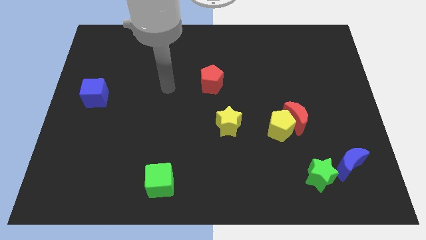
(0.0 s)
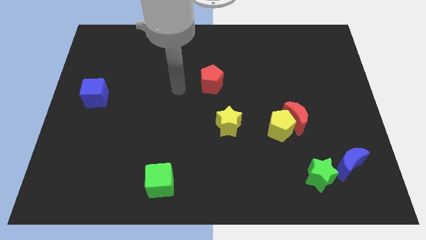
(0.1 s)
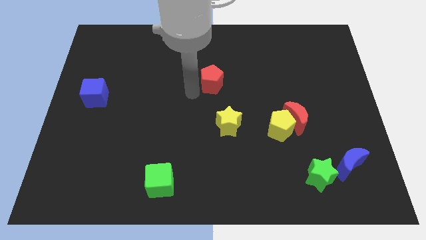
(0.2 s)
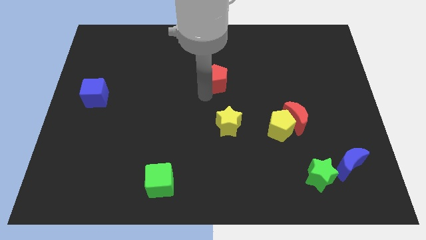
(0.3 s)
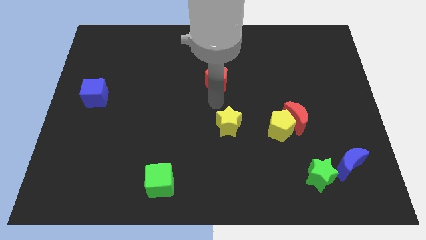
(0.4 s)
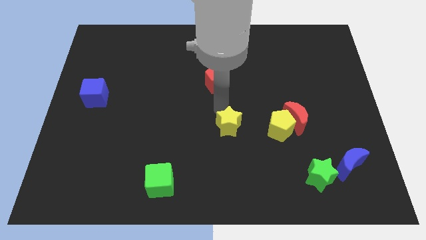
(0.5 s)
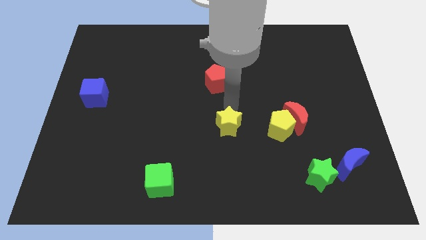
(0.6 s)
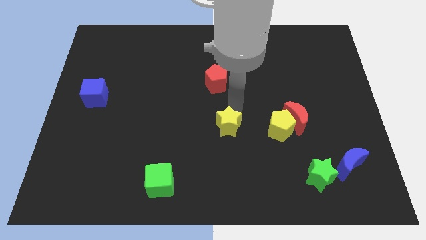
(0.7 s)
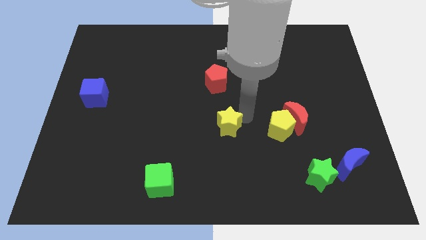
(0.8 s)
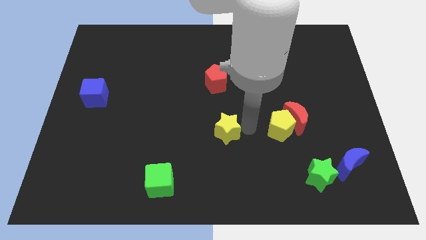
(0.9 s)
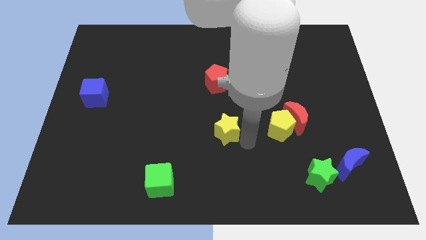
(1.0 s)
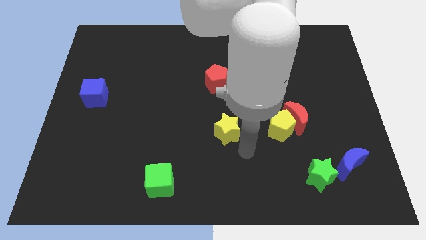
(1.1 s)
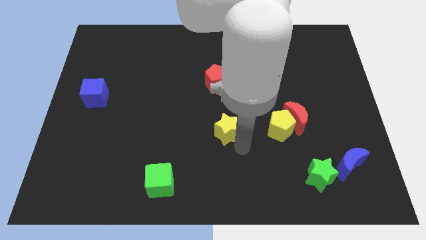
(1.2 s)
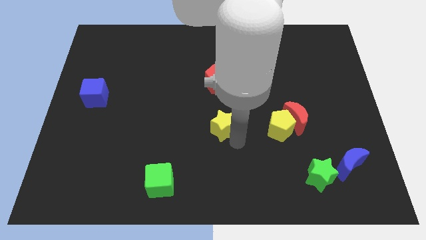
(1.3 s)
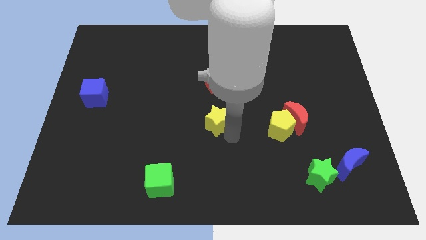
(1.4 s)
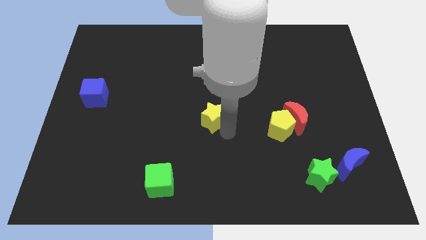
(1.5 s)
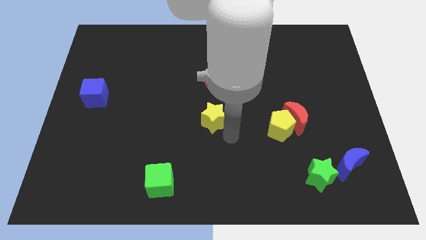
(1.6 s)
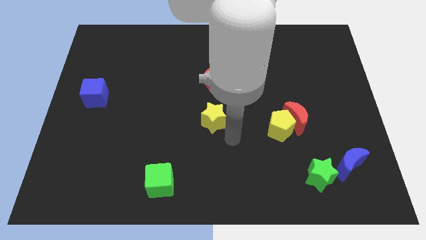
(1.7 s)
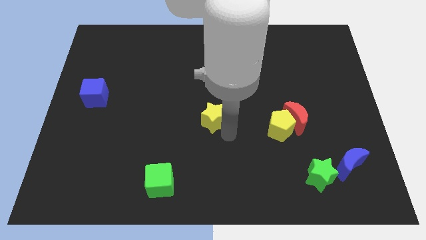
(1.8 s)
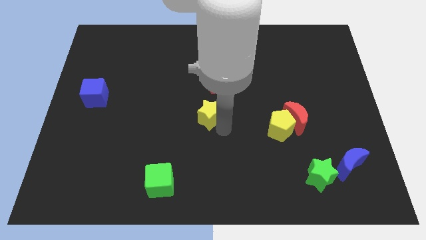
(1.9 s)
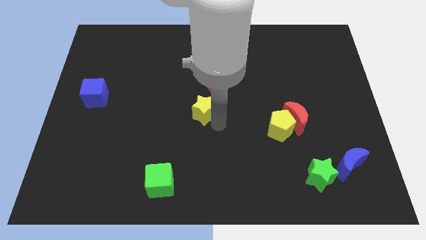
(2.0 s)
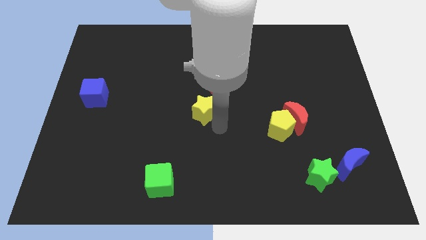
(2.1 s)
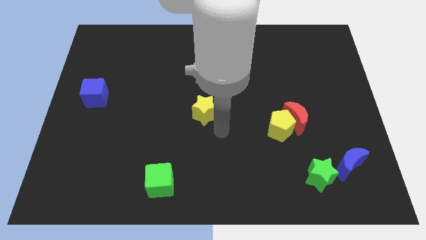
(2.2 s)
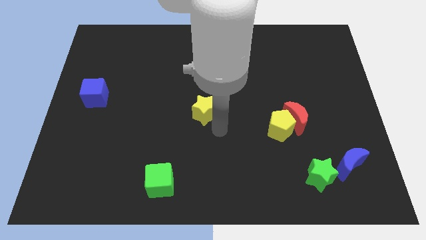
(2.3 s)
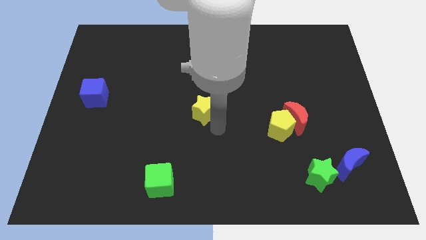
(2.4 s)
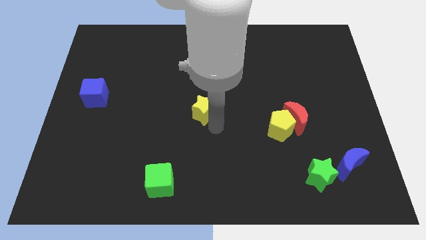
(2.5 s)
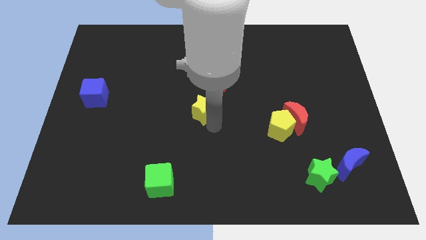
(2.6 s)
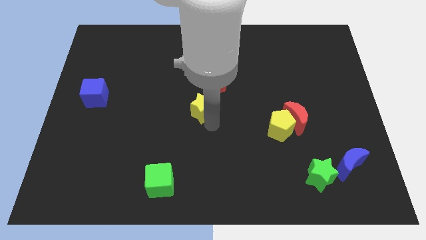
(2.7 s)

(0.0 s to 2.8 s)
move the yellow star upwards and to the left diagonally somewhat

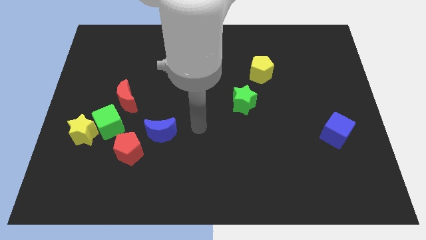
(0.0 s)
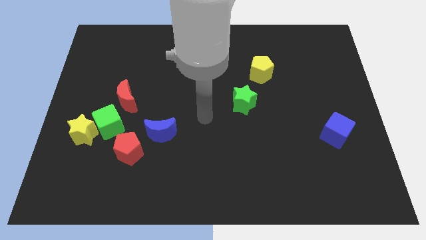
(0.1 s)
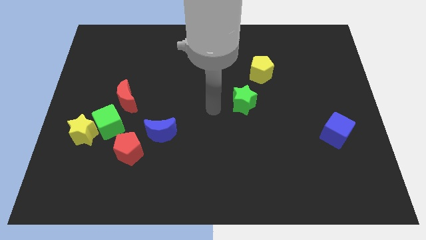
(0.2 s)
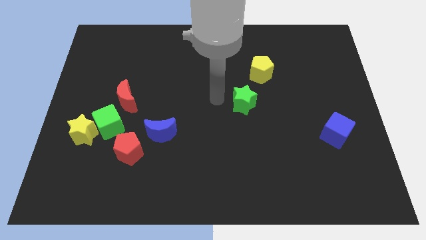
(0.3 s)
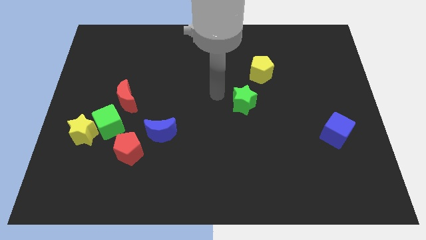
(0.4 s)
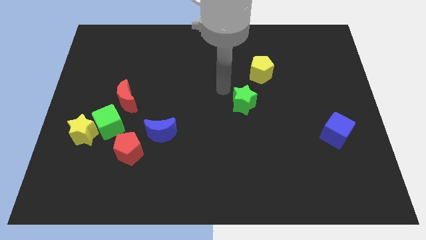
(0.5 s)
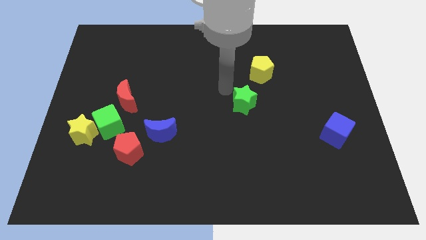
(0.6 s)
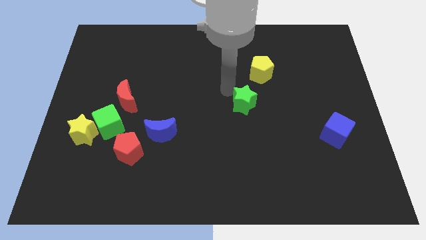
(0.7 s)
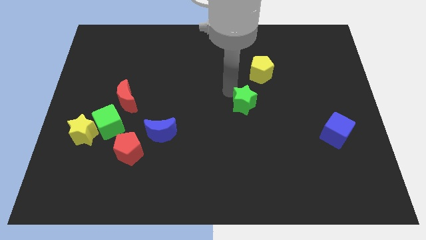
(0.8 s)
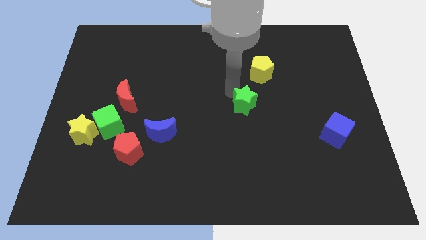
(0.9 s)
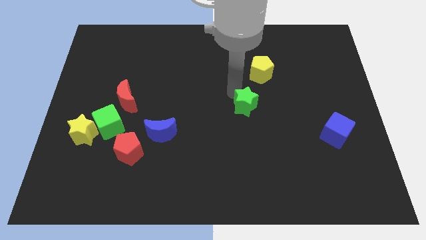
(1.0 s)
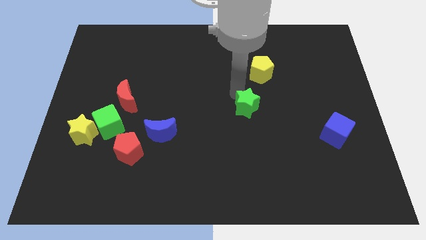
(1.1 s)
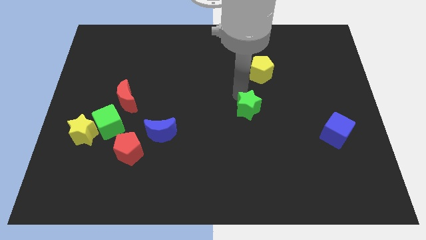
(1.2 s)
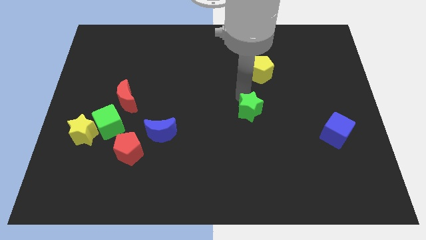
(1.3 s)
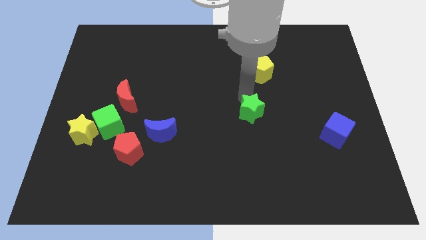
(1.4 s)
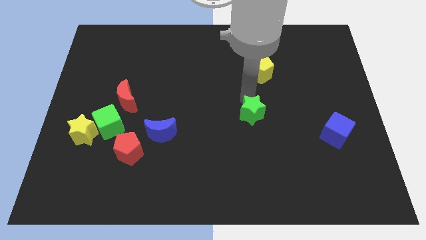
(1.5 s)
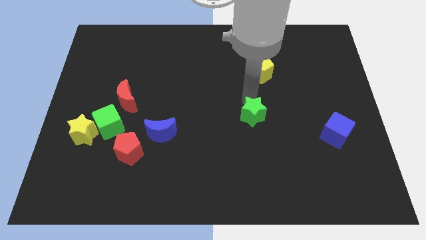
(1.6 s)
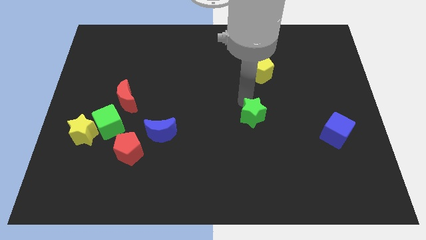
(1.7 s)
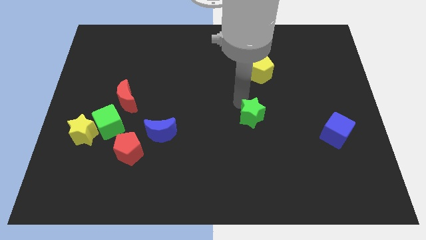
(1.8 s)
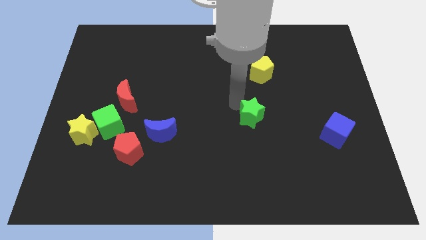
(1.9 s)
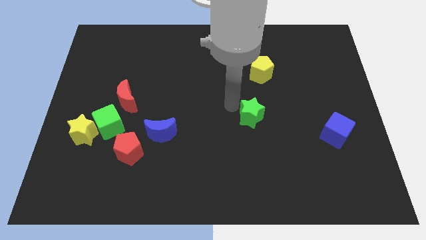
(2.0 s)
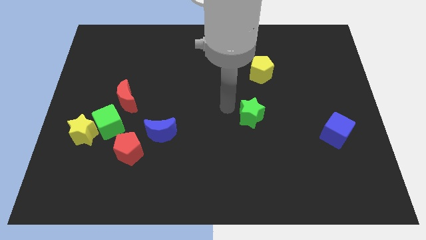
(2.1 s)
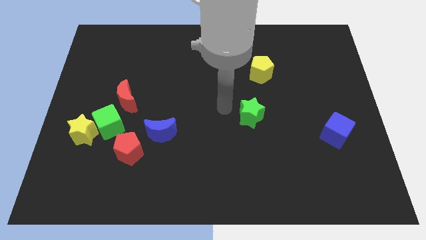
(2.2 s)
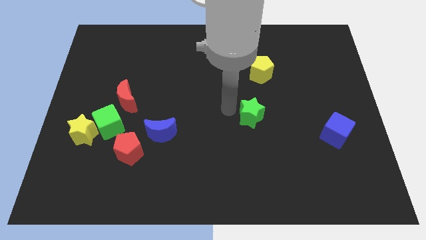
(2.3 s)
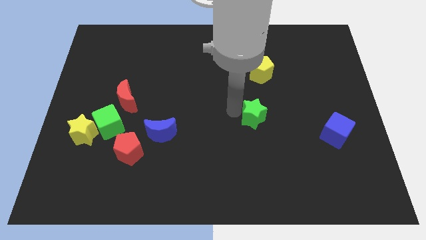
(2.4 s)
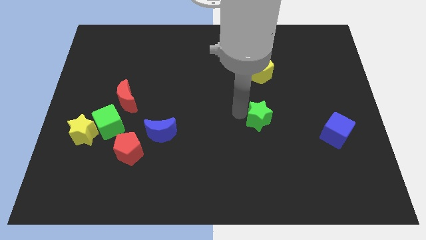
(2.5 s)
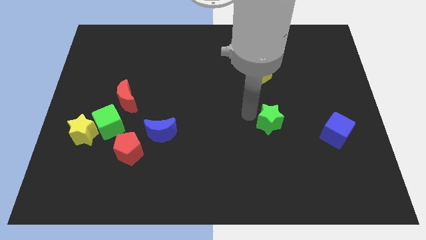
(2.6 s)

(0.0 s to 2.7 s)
slightly push the green star downwards and to the right diagonally

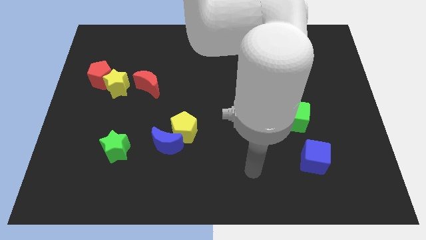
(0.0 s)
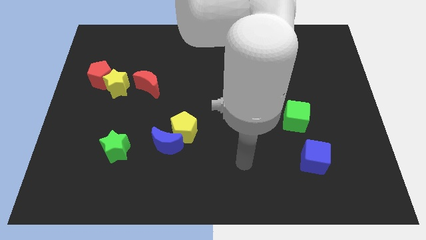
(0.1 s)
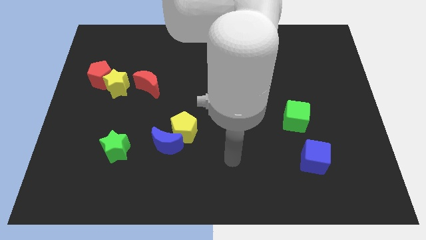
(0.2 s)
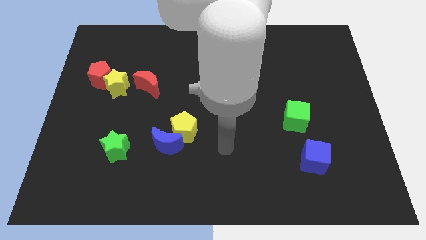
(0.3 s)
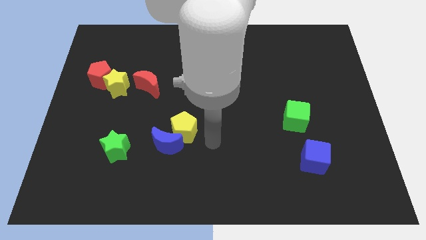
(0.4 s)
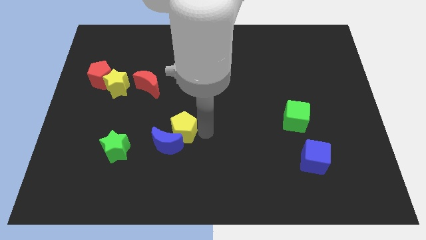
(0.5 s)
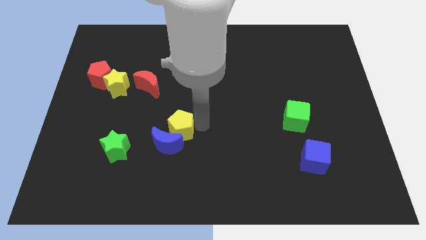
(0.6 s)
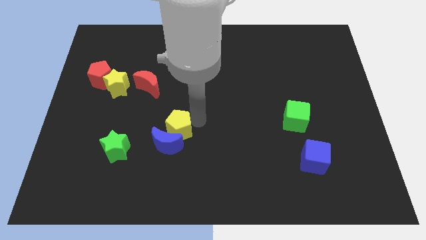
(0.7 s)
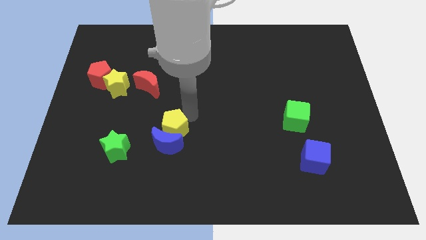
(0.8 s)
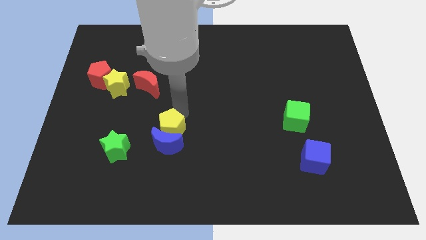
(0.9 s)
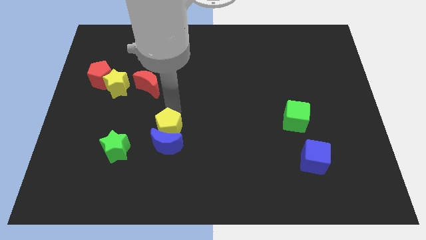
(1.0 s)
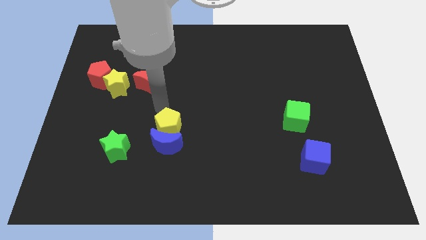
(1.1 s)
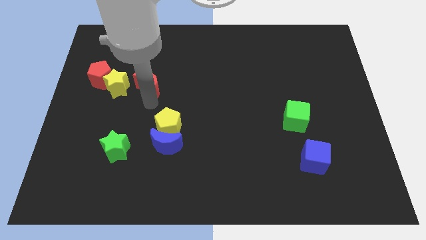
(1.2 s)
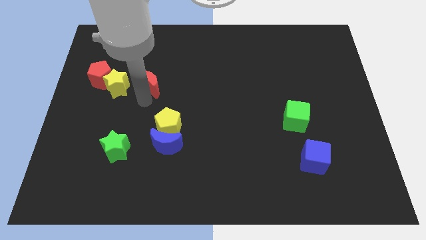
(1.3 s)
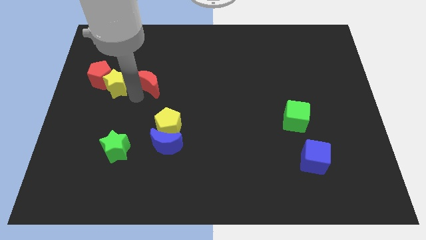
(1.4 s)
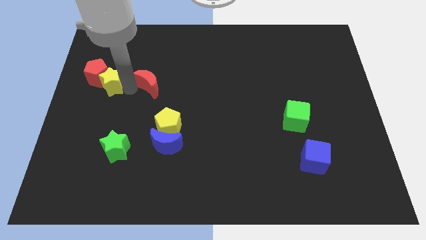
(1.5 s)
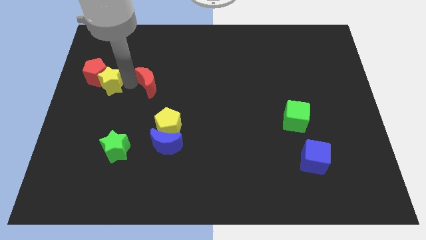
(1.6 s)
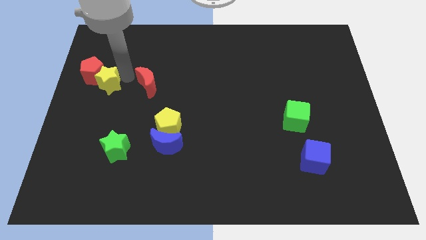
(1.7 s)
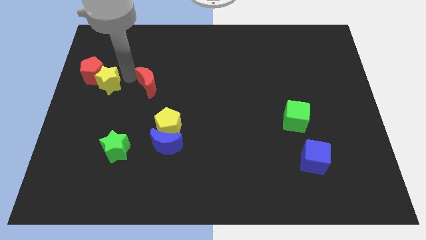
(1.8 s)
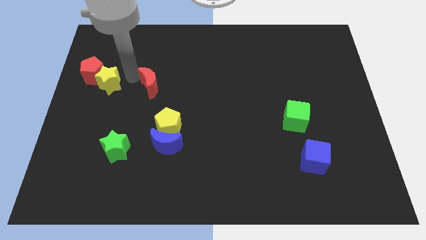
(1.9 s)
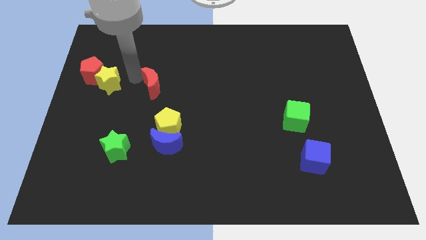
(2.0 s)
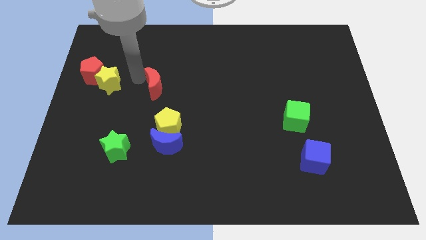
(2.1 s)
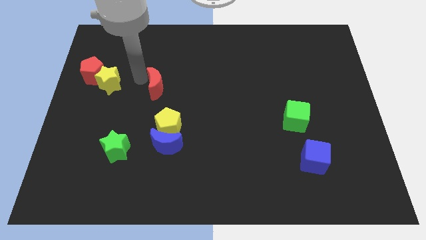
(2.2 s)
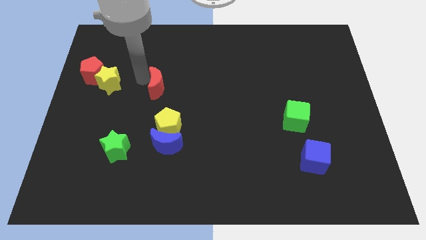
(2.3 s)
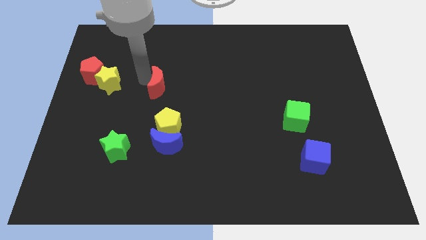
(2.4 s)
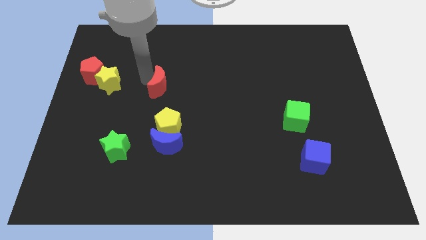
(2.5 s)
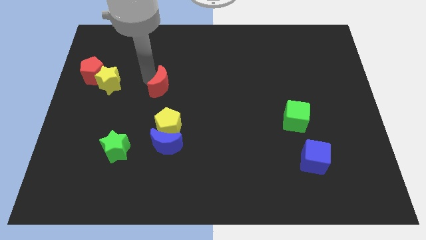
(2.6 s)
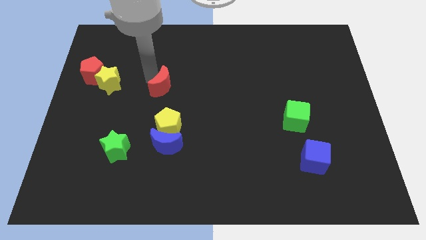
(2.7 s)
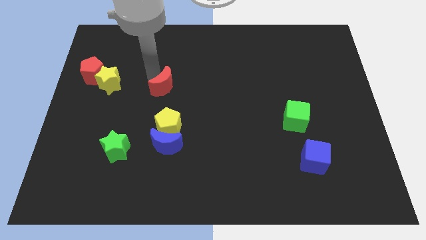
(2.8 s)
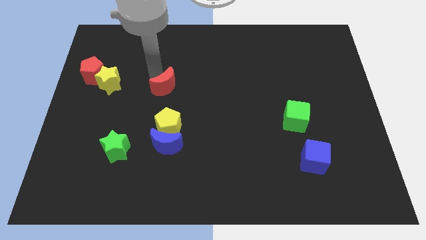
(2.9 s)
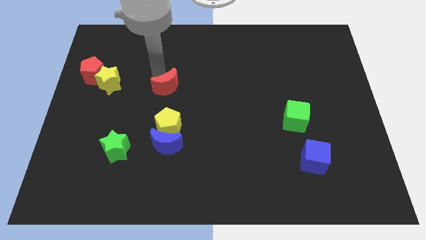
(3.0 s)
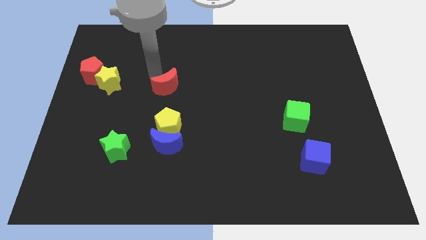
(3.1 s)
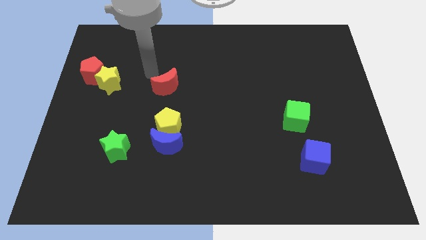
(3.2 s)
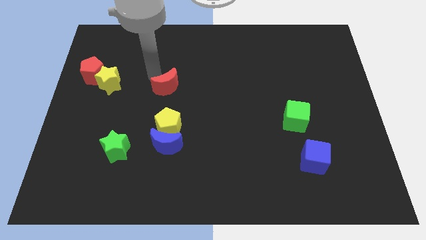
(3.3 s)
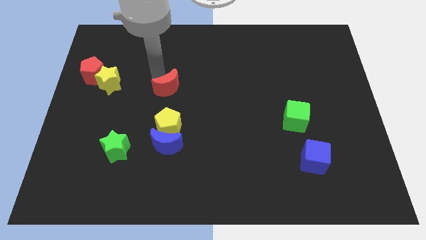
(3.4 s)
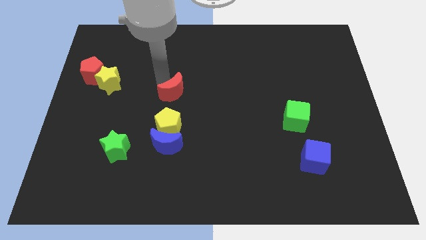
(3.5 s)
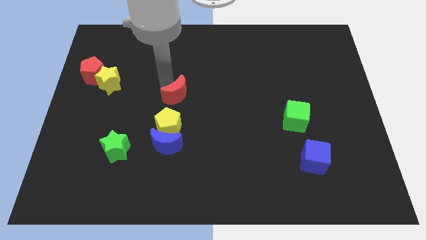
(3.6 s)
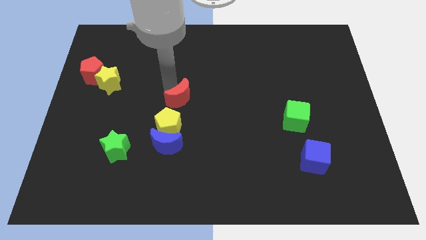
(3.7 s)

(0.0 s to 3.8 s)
move the red moon down and right a little
